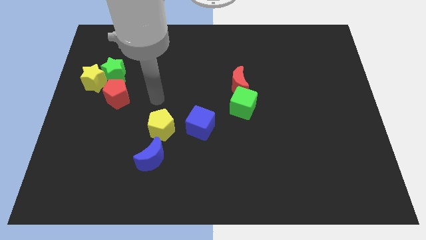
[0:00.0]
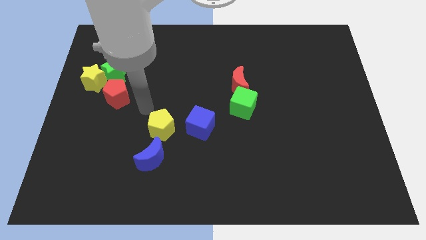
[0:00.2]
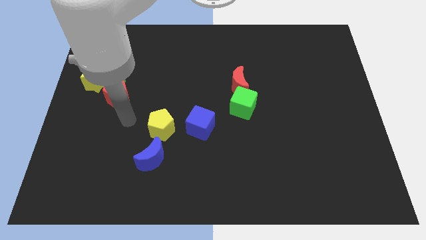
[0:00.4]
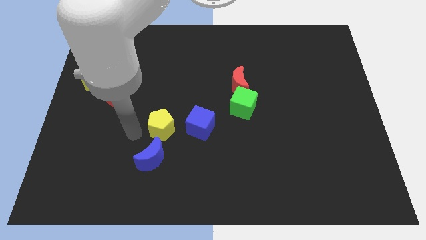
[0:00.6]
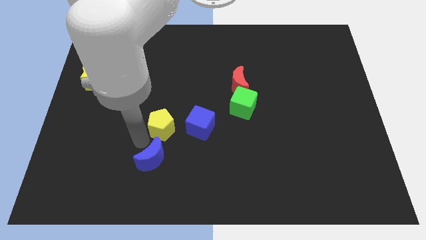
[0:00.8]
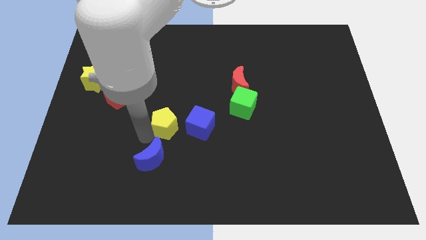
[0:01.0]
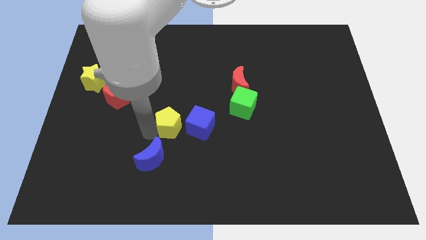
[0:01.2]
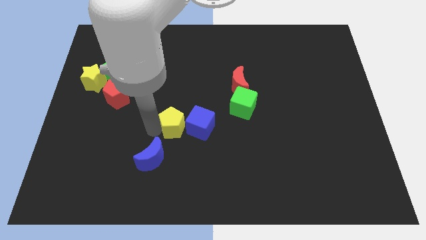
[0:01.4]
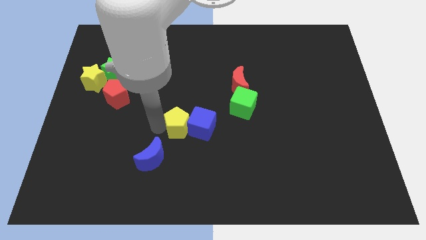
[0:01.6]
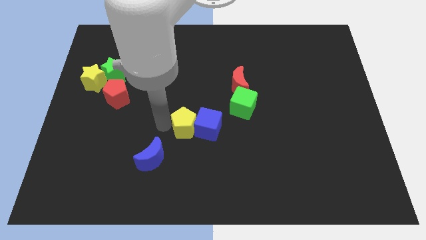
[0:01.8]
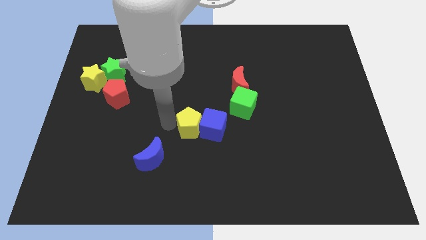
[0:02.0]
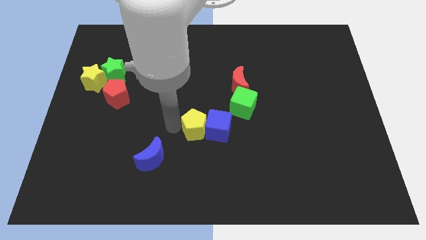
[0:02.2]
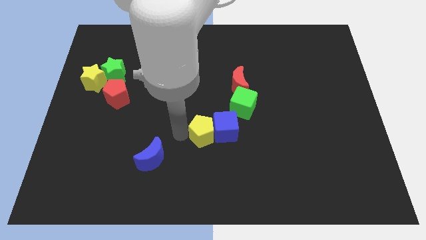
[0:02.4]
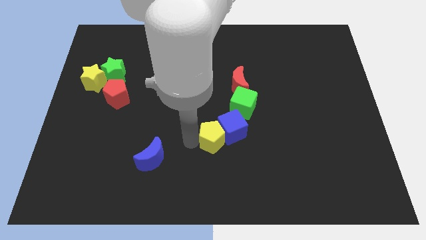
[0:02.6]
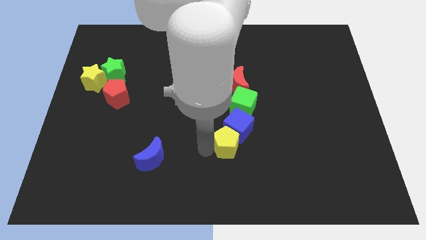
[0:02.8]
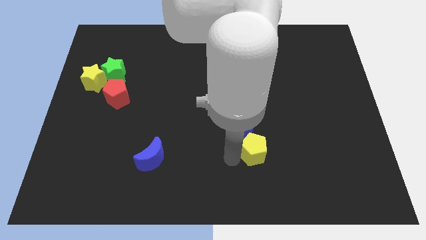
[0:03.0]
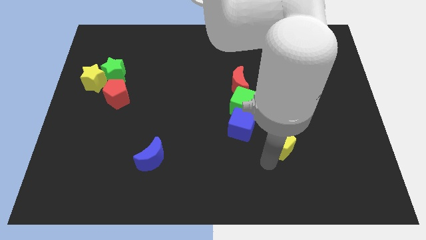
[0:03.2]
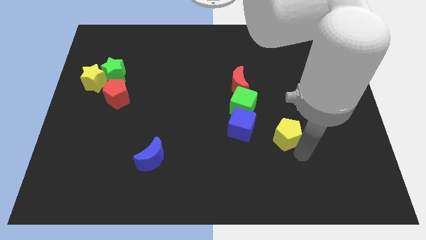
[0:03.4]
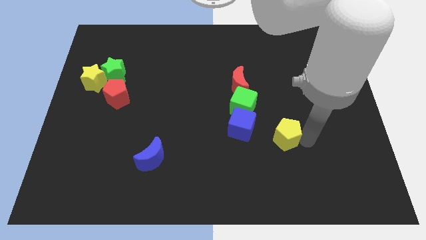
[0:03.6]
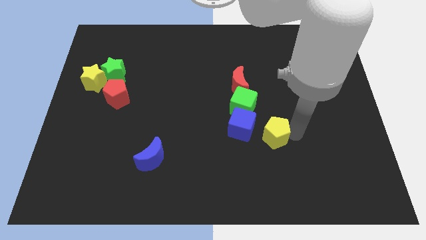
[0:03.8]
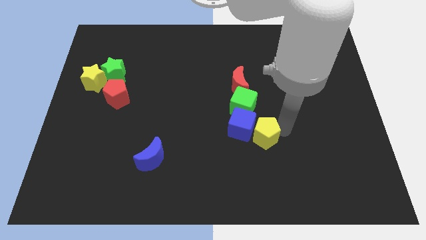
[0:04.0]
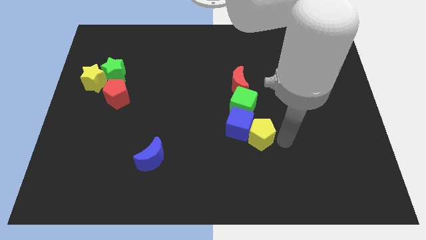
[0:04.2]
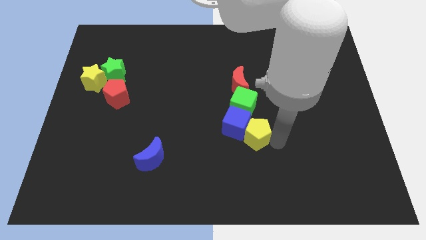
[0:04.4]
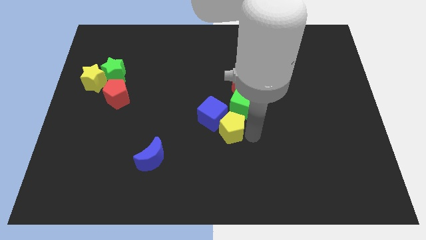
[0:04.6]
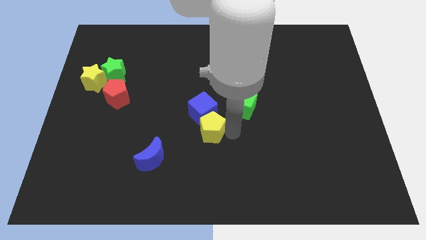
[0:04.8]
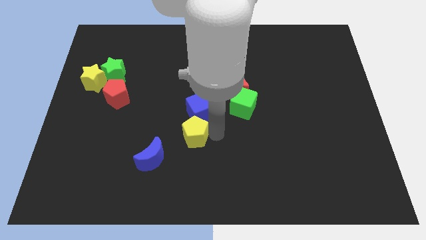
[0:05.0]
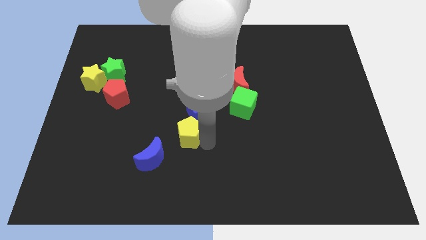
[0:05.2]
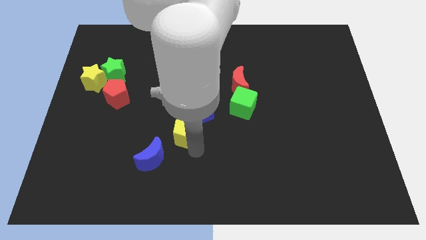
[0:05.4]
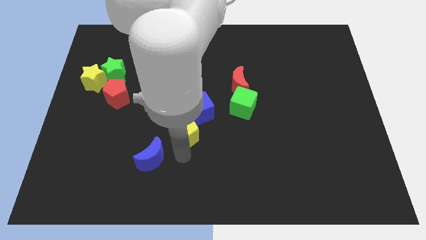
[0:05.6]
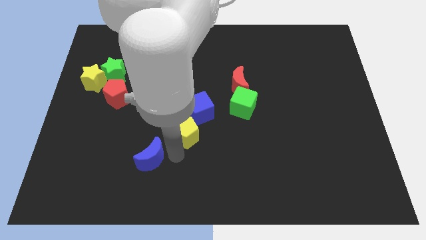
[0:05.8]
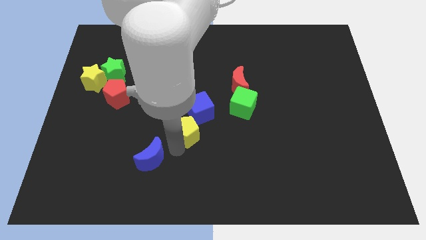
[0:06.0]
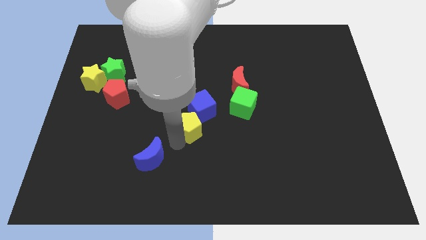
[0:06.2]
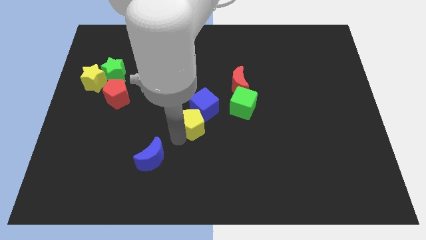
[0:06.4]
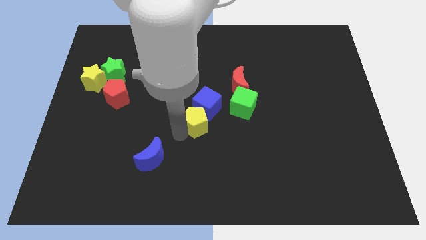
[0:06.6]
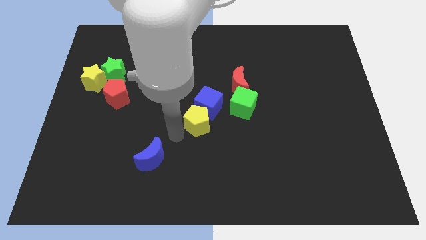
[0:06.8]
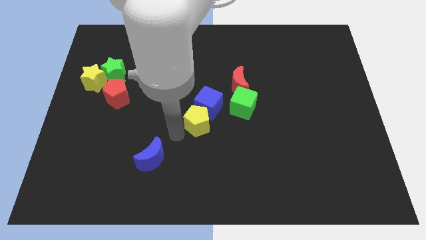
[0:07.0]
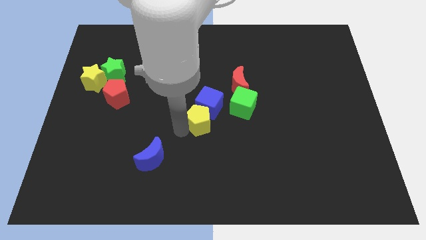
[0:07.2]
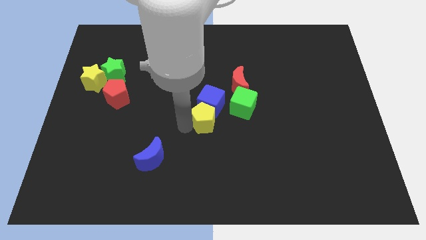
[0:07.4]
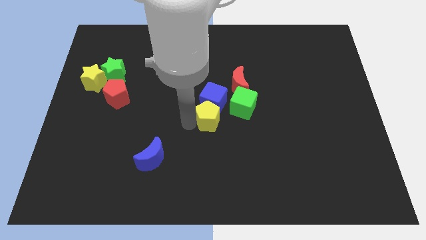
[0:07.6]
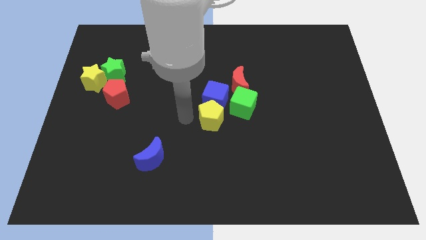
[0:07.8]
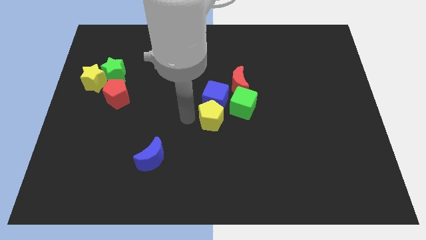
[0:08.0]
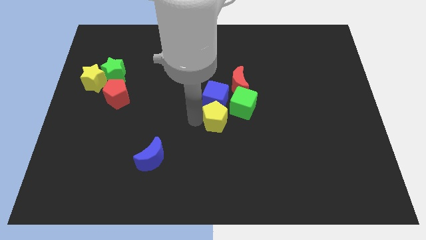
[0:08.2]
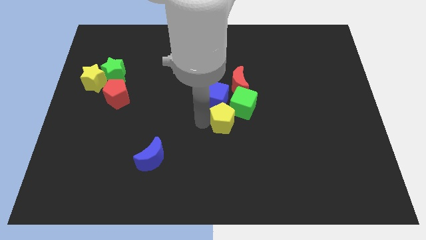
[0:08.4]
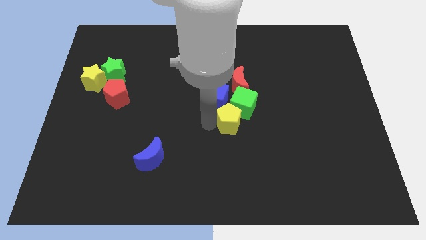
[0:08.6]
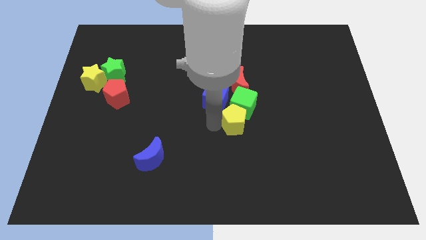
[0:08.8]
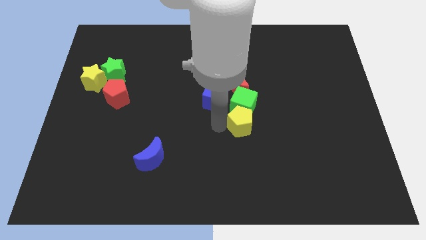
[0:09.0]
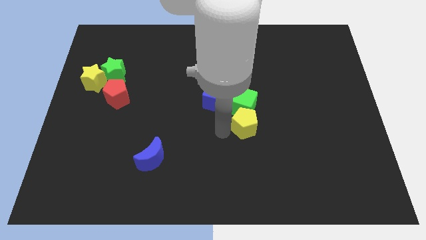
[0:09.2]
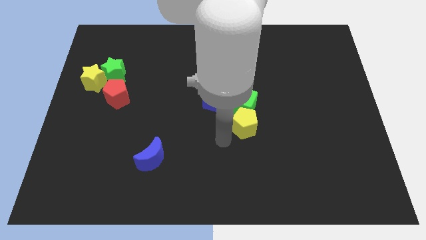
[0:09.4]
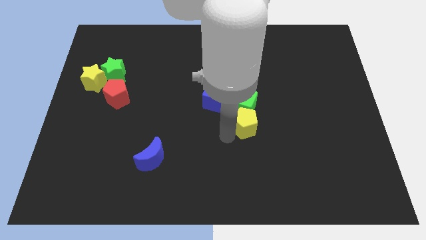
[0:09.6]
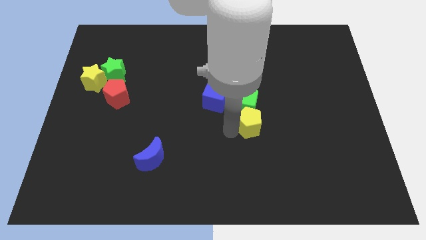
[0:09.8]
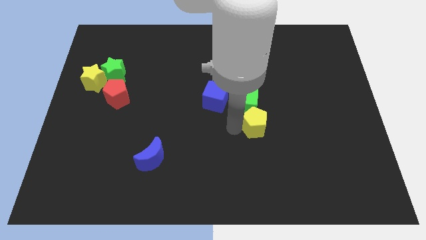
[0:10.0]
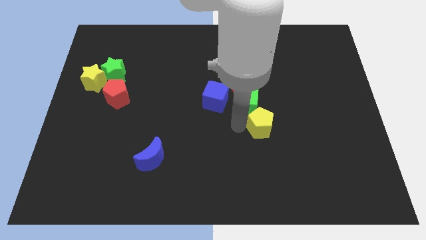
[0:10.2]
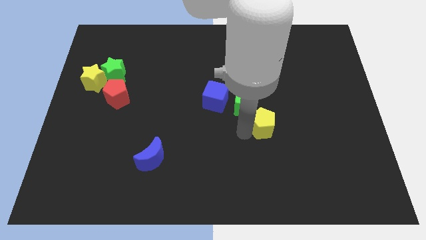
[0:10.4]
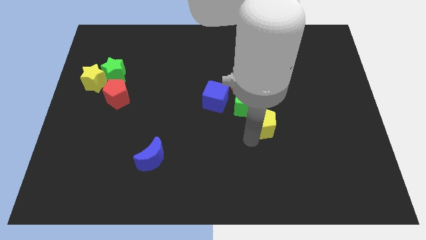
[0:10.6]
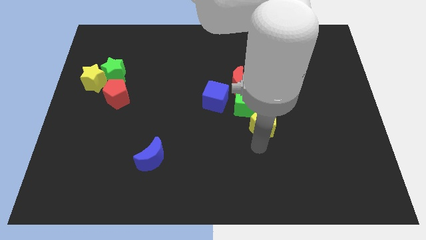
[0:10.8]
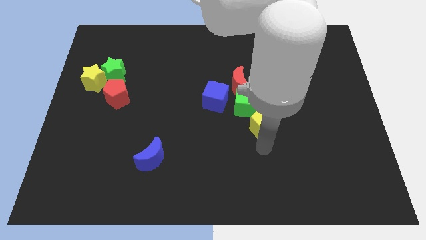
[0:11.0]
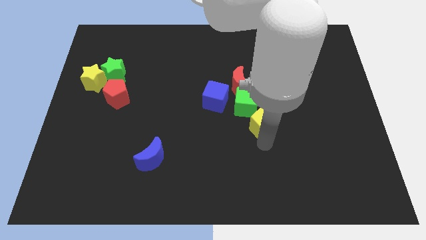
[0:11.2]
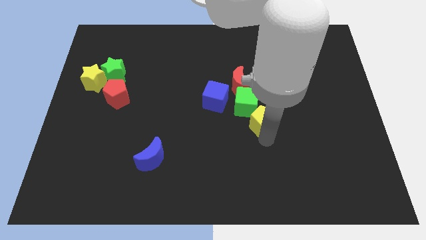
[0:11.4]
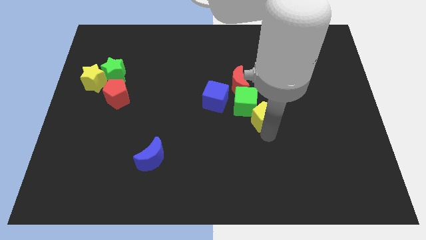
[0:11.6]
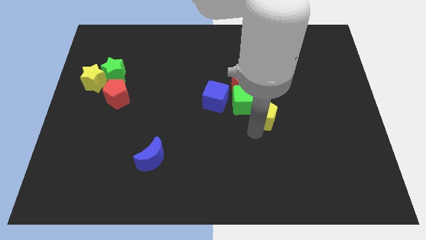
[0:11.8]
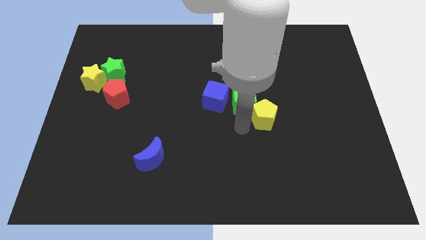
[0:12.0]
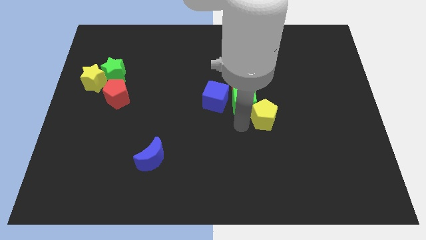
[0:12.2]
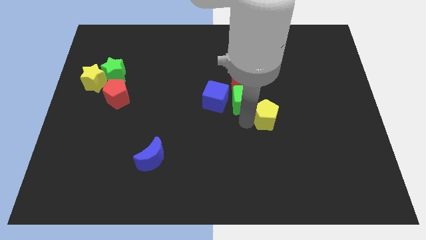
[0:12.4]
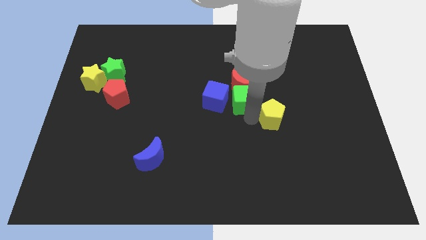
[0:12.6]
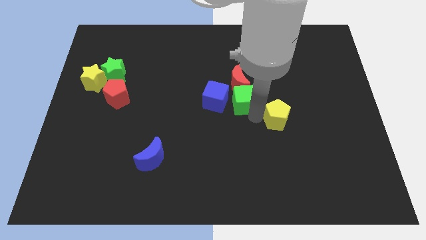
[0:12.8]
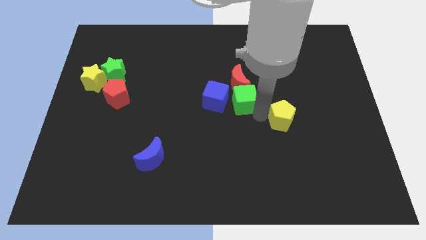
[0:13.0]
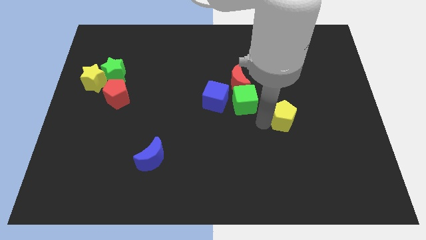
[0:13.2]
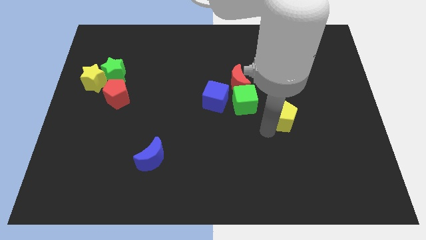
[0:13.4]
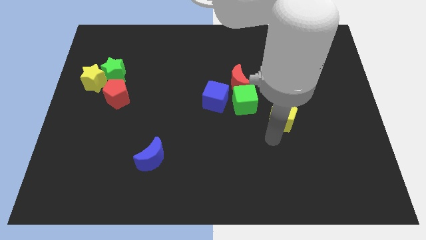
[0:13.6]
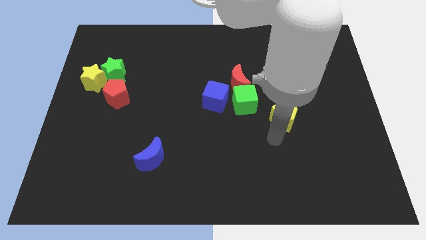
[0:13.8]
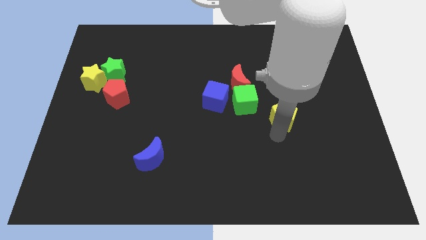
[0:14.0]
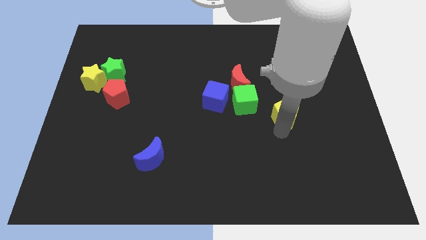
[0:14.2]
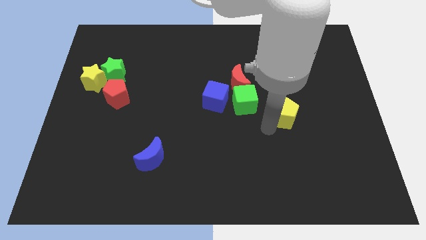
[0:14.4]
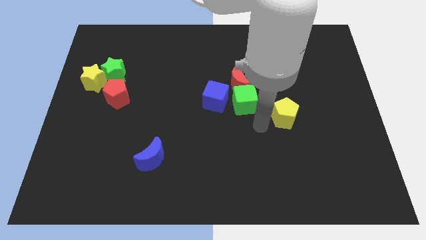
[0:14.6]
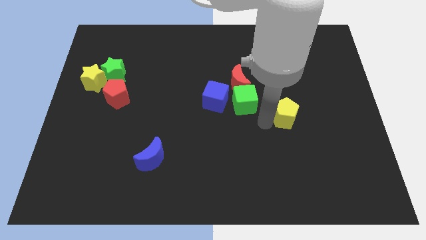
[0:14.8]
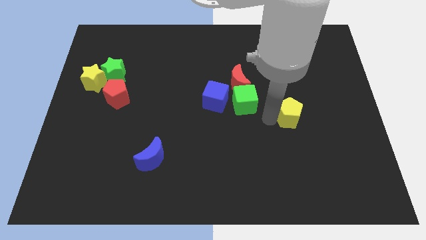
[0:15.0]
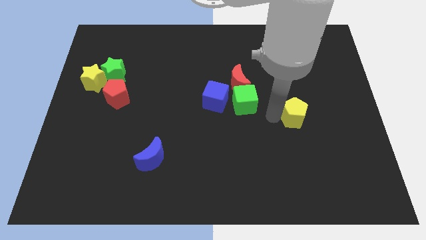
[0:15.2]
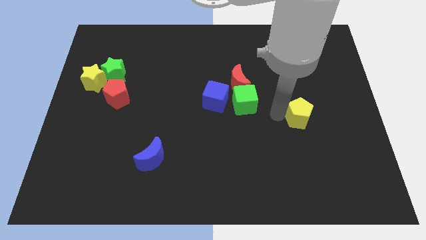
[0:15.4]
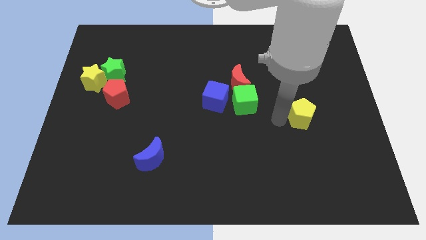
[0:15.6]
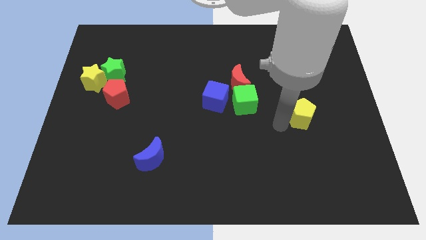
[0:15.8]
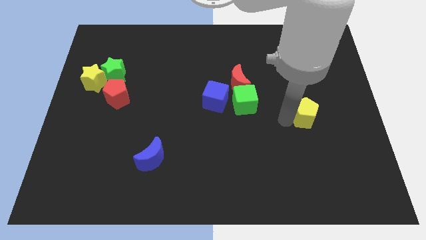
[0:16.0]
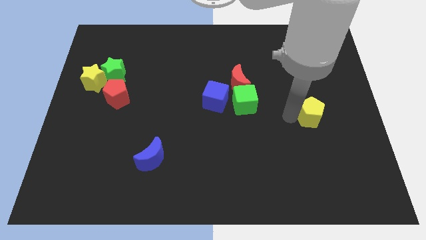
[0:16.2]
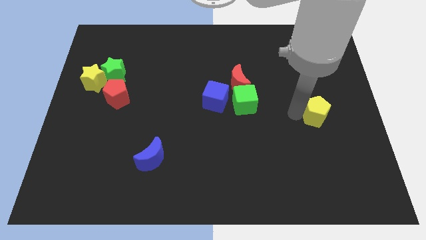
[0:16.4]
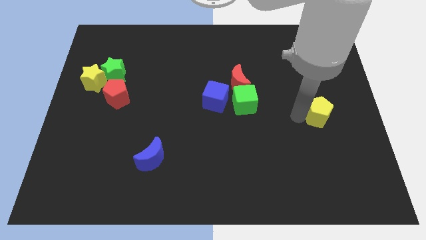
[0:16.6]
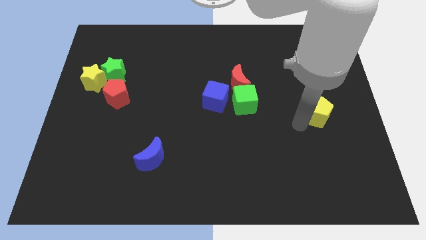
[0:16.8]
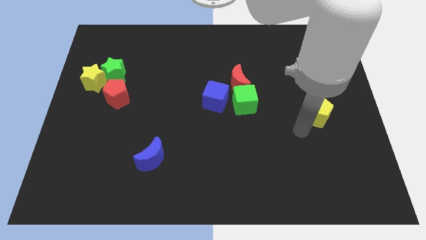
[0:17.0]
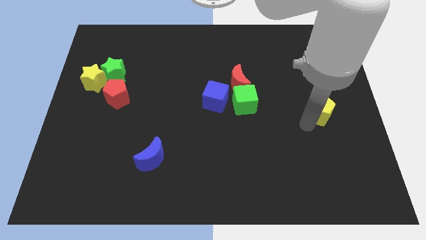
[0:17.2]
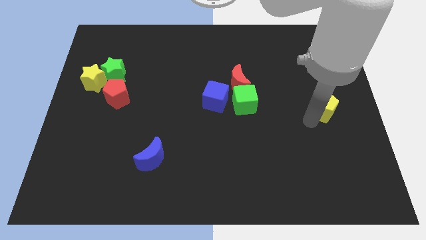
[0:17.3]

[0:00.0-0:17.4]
push the yellow pentagon to the center right
